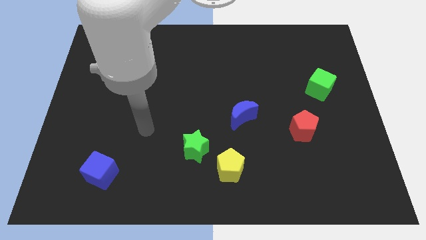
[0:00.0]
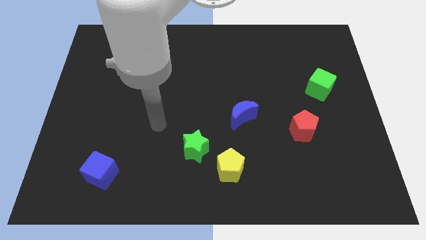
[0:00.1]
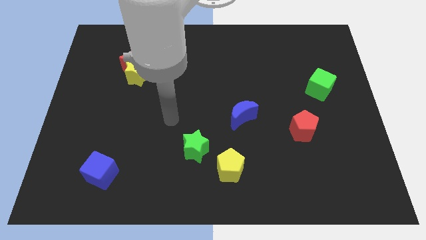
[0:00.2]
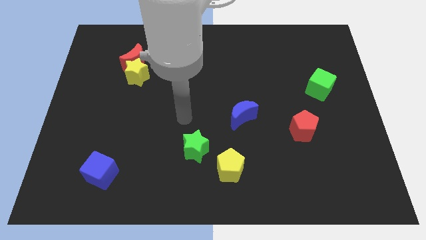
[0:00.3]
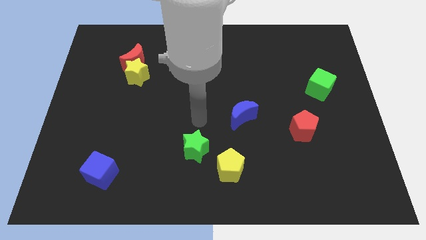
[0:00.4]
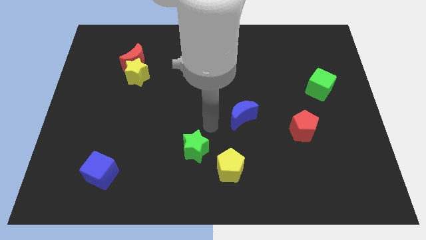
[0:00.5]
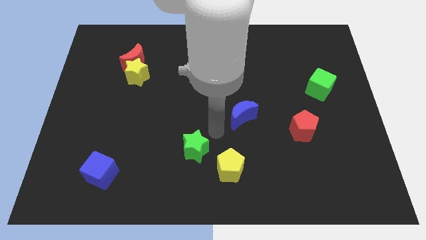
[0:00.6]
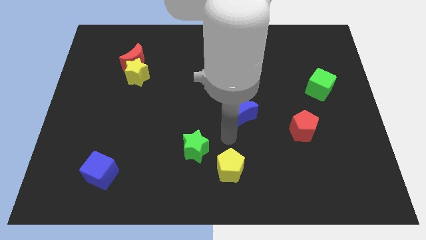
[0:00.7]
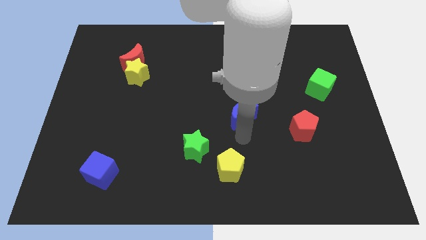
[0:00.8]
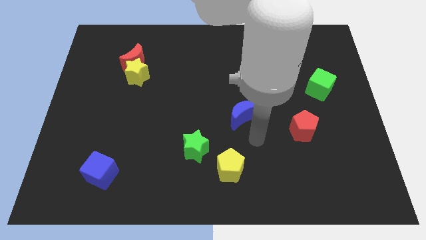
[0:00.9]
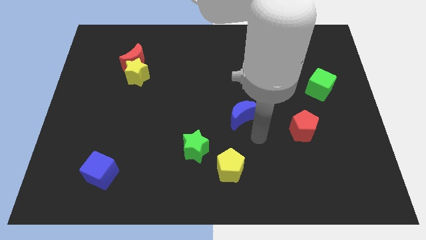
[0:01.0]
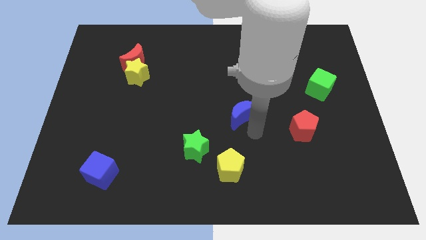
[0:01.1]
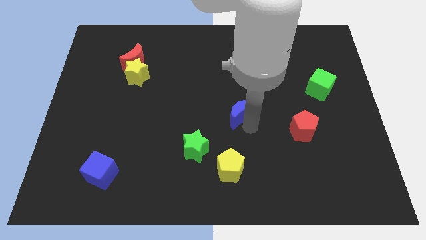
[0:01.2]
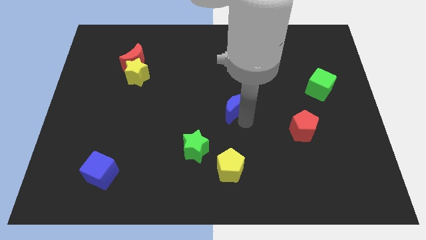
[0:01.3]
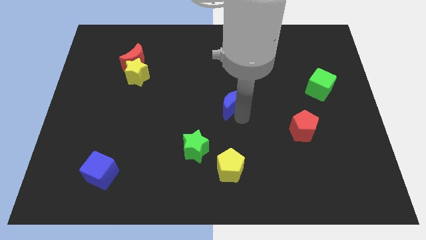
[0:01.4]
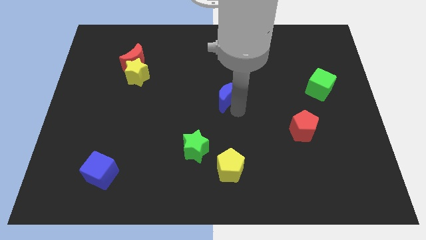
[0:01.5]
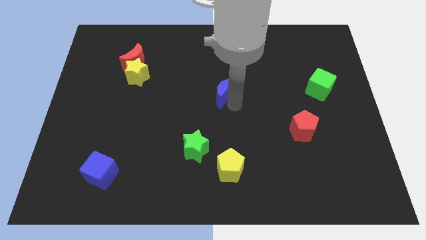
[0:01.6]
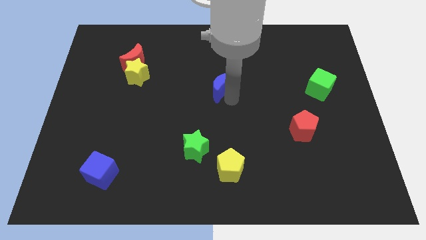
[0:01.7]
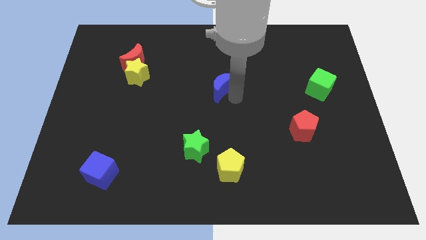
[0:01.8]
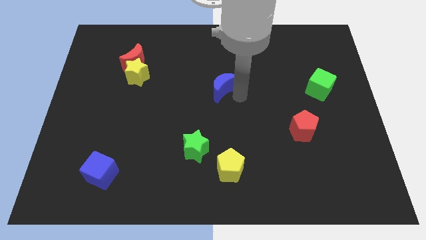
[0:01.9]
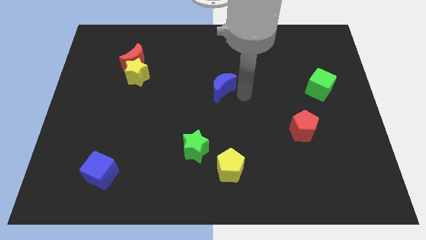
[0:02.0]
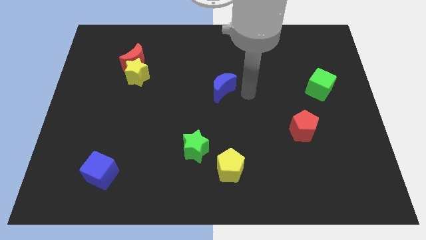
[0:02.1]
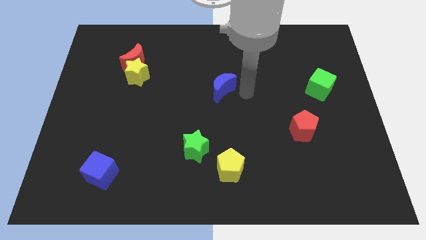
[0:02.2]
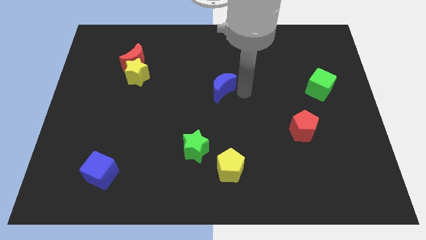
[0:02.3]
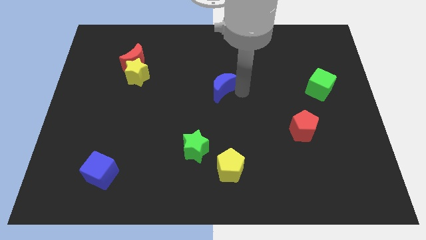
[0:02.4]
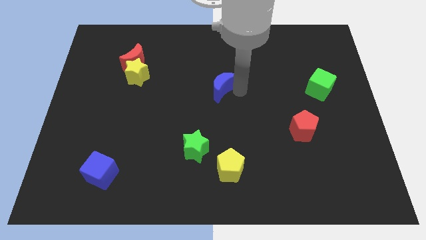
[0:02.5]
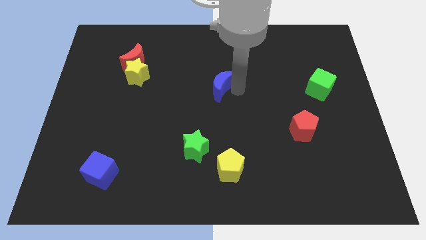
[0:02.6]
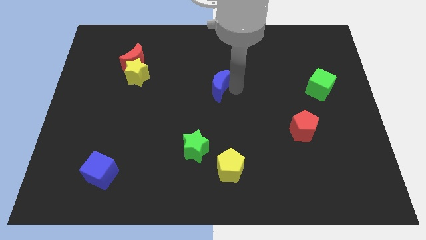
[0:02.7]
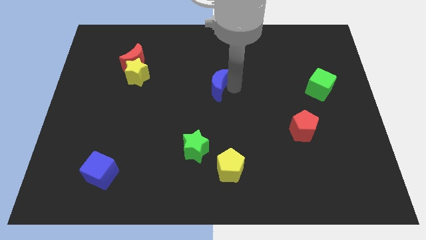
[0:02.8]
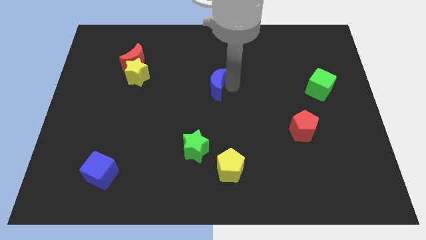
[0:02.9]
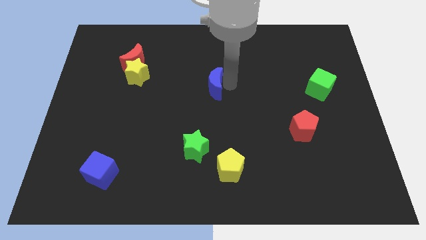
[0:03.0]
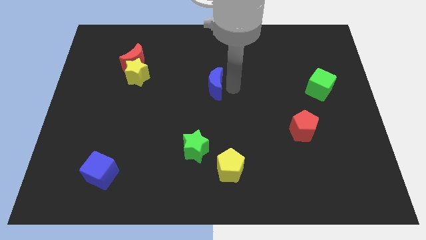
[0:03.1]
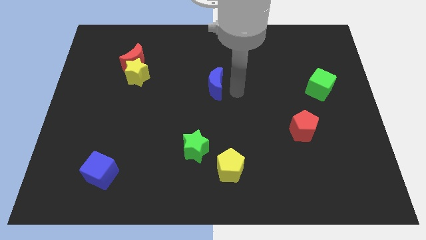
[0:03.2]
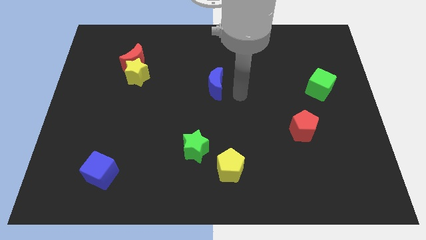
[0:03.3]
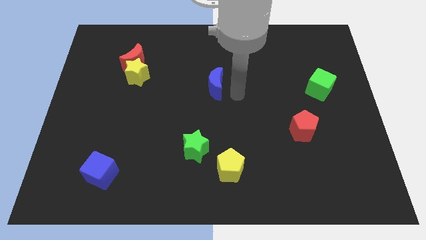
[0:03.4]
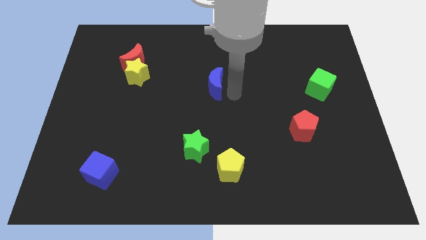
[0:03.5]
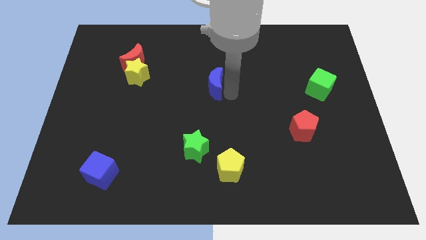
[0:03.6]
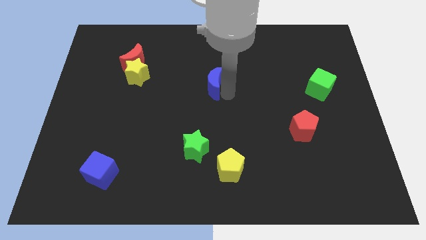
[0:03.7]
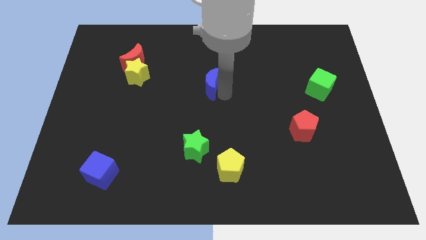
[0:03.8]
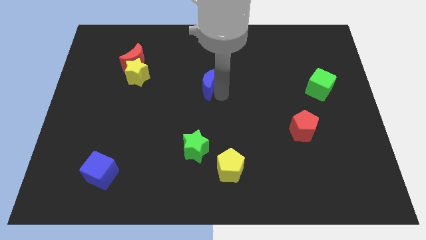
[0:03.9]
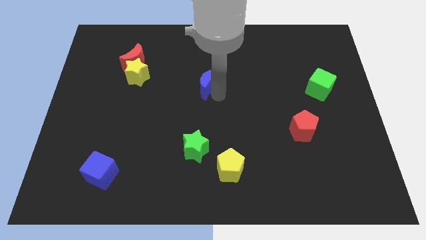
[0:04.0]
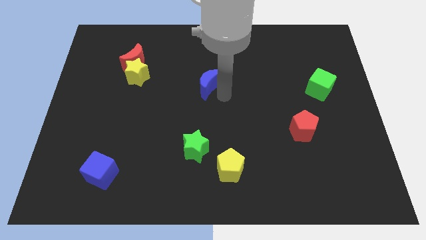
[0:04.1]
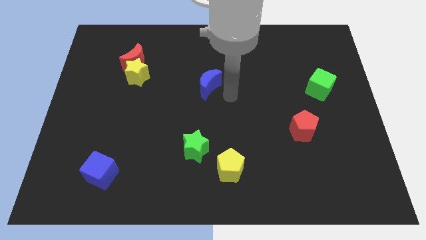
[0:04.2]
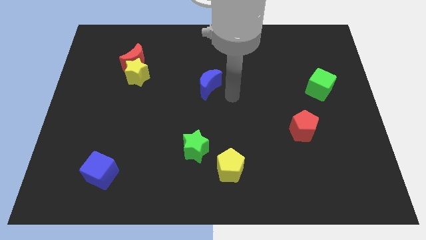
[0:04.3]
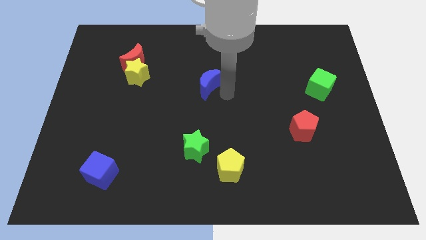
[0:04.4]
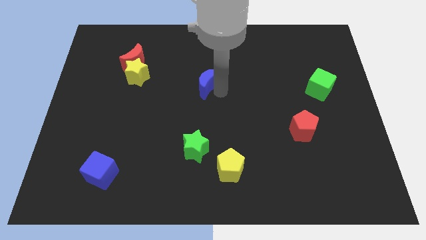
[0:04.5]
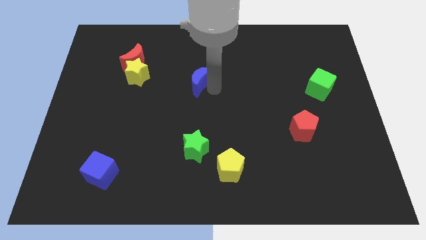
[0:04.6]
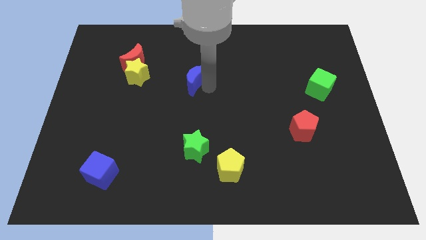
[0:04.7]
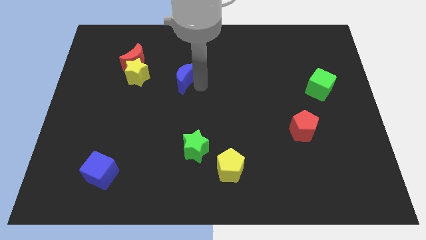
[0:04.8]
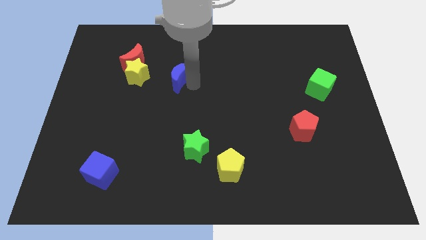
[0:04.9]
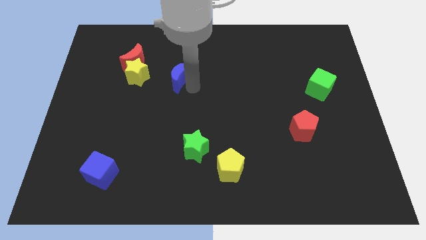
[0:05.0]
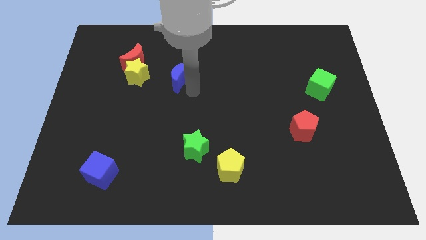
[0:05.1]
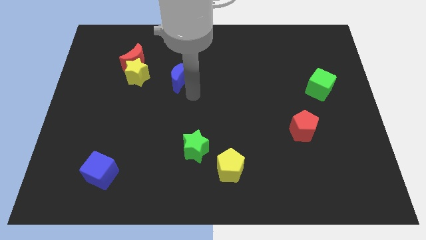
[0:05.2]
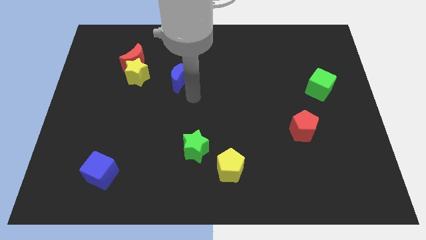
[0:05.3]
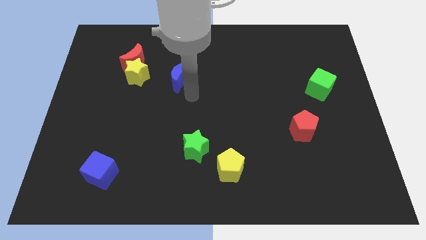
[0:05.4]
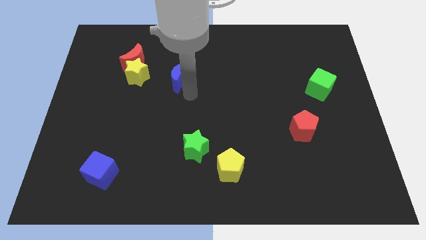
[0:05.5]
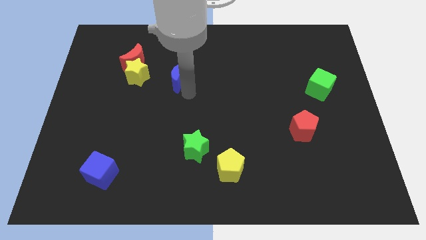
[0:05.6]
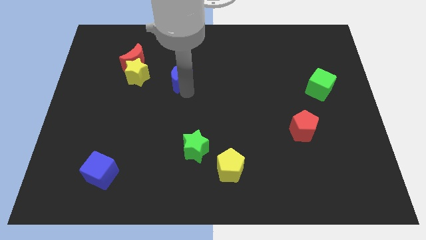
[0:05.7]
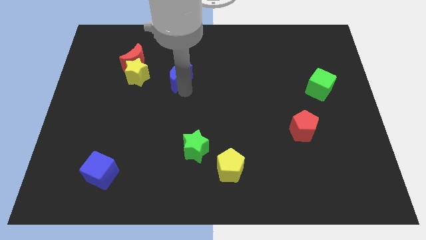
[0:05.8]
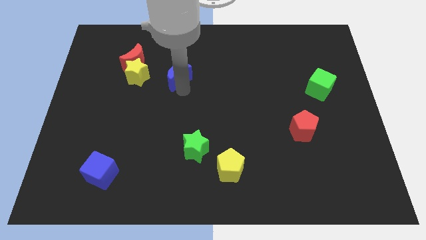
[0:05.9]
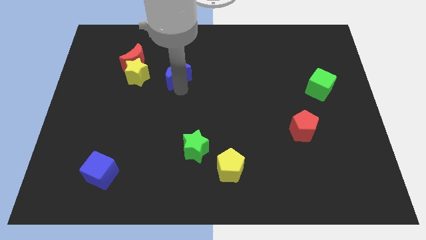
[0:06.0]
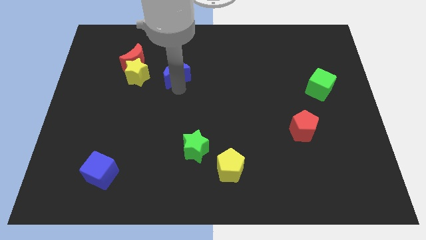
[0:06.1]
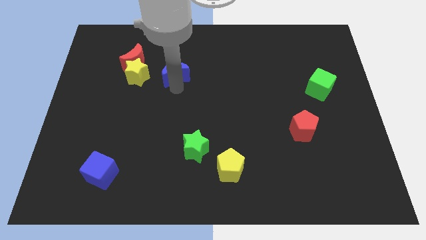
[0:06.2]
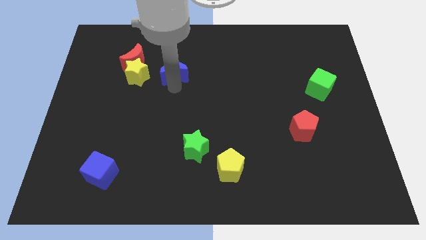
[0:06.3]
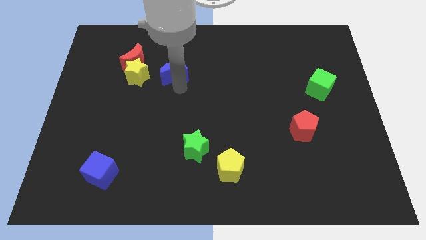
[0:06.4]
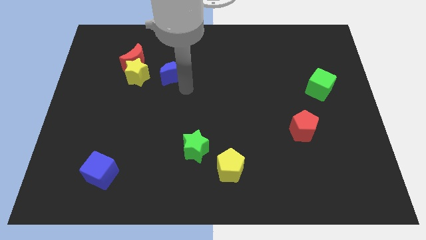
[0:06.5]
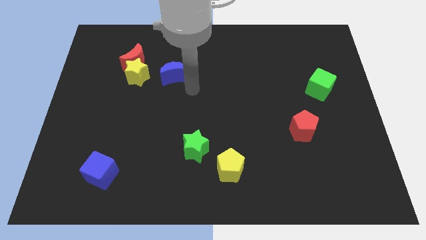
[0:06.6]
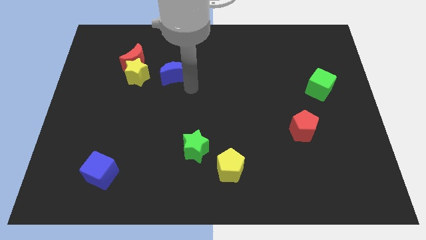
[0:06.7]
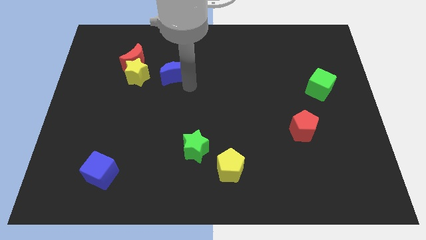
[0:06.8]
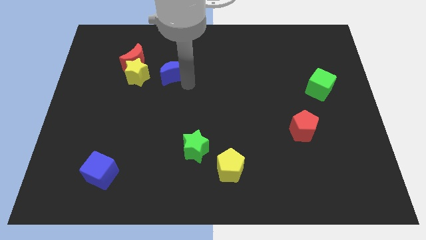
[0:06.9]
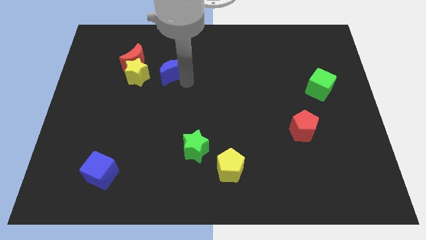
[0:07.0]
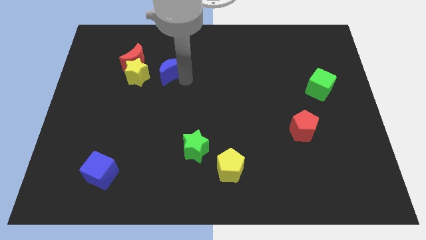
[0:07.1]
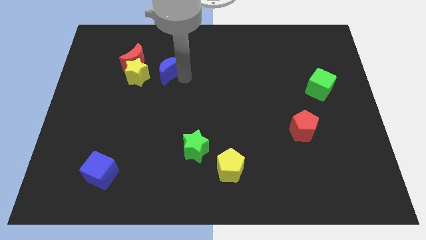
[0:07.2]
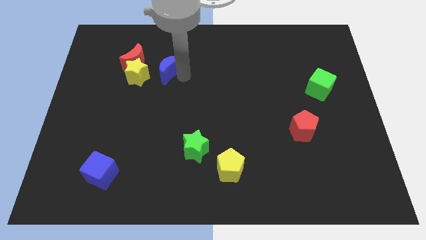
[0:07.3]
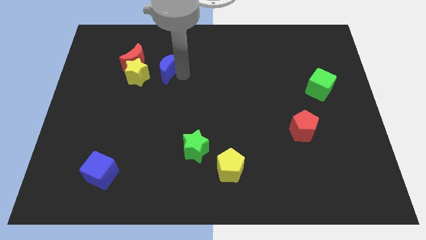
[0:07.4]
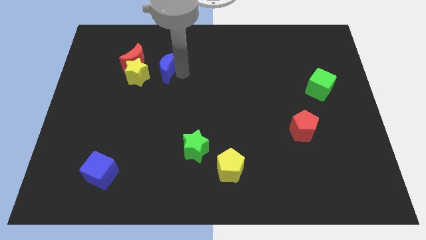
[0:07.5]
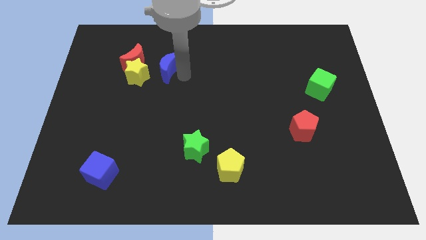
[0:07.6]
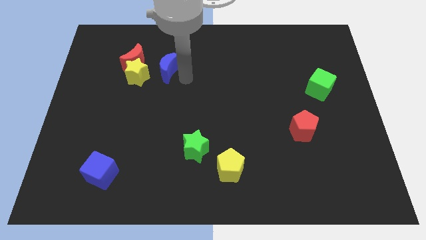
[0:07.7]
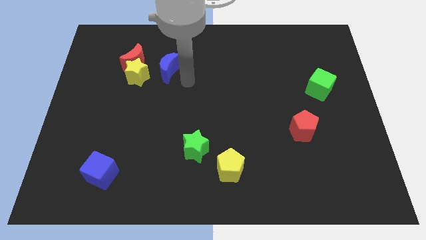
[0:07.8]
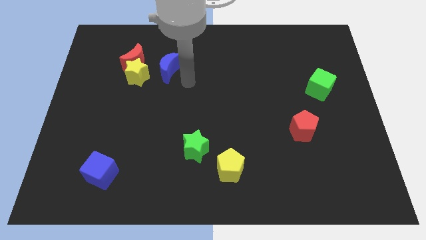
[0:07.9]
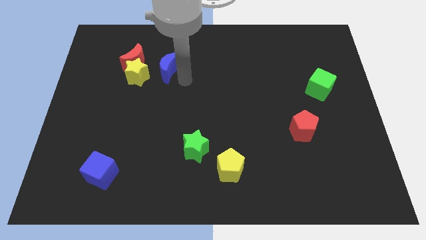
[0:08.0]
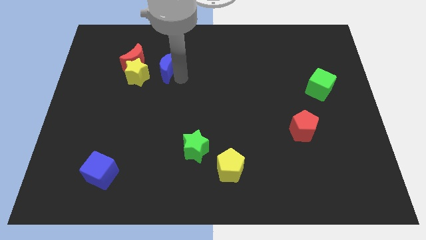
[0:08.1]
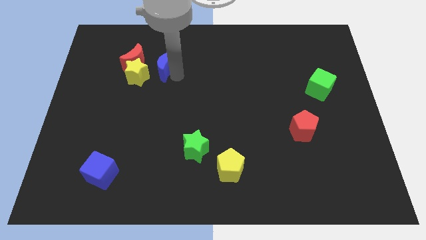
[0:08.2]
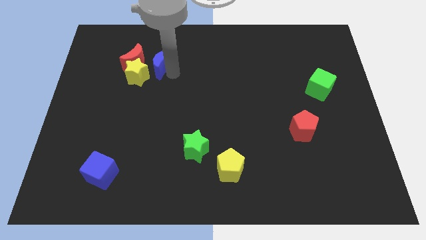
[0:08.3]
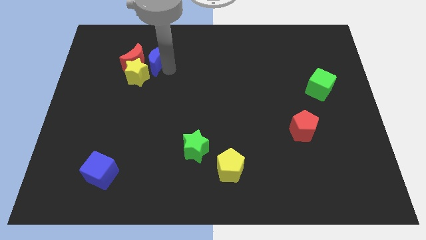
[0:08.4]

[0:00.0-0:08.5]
put the blue moon to the red moon
